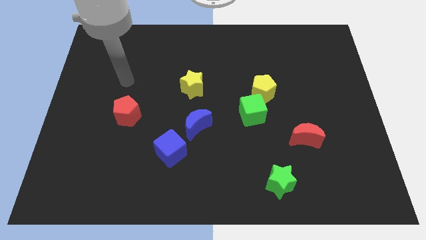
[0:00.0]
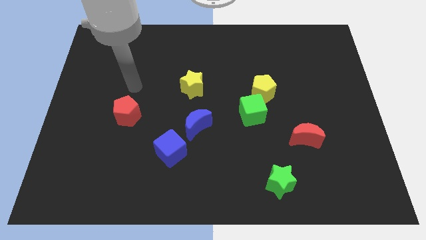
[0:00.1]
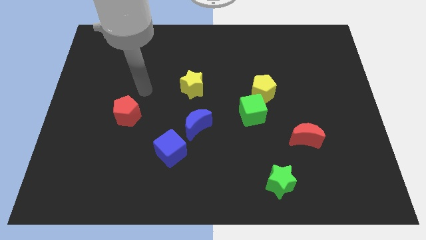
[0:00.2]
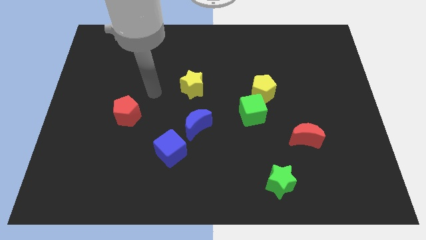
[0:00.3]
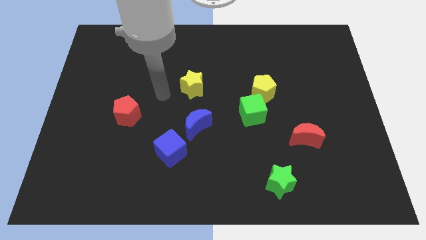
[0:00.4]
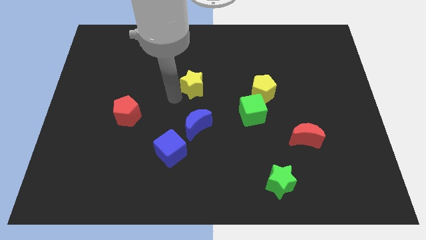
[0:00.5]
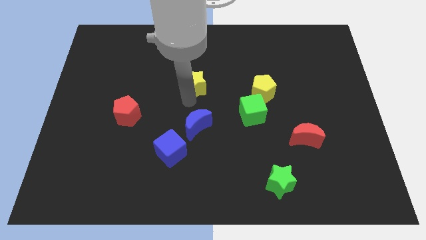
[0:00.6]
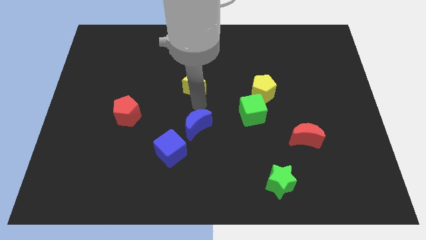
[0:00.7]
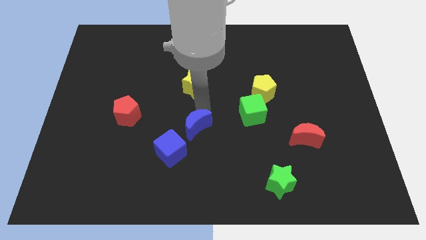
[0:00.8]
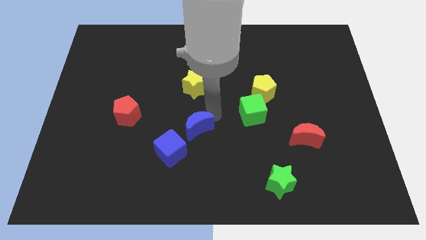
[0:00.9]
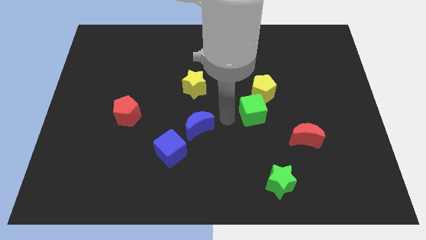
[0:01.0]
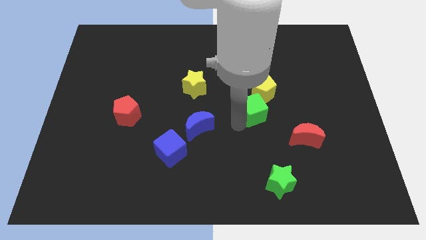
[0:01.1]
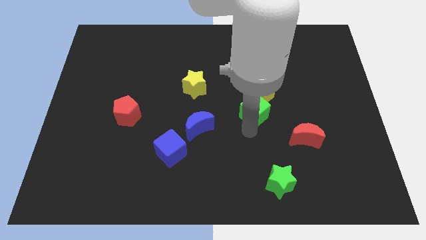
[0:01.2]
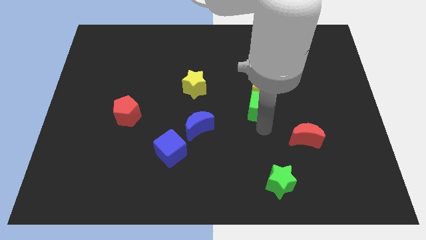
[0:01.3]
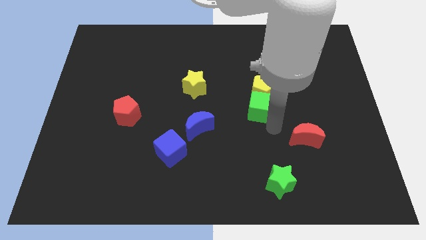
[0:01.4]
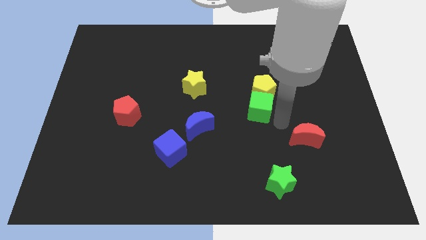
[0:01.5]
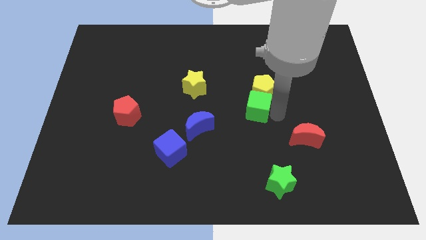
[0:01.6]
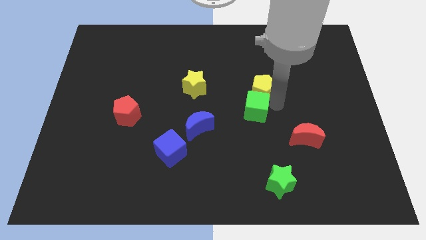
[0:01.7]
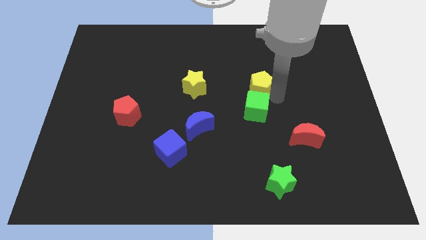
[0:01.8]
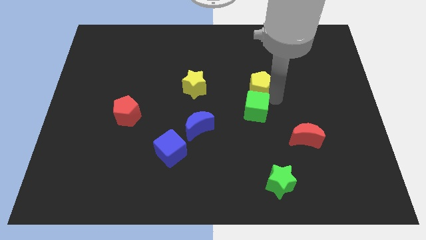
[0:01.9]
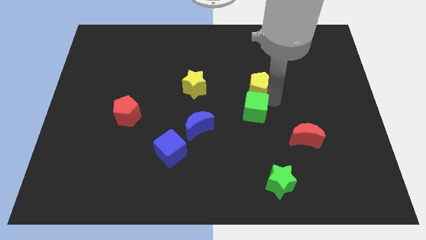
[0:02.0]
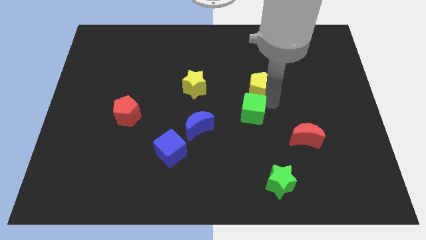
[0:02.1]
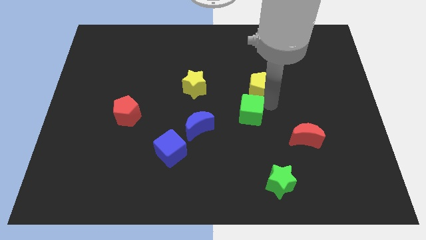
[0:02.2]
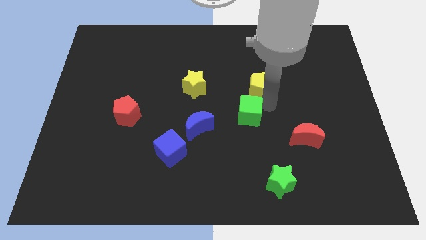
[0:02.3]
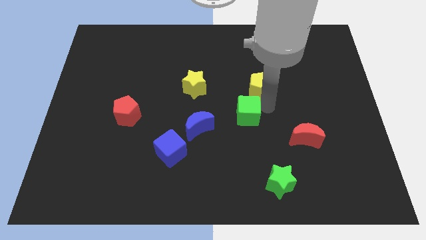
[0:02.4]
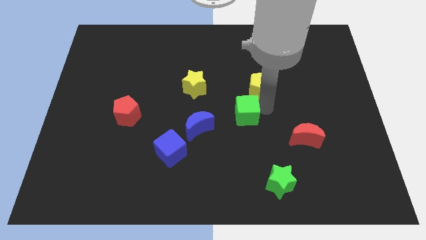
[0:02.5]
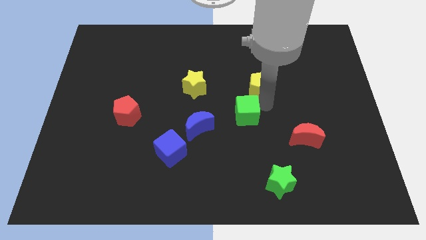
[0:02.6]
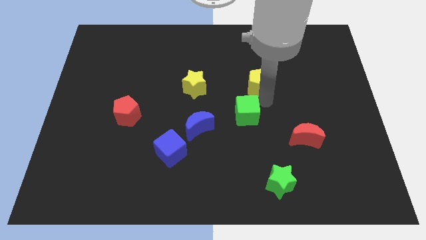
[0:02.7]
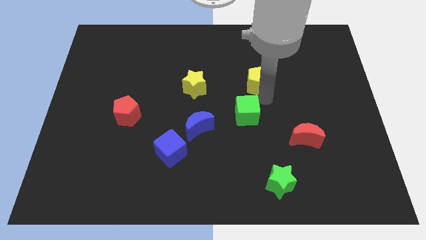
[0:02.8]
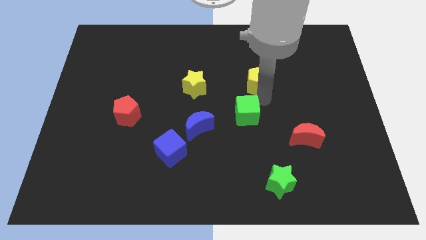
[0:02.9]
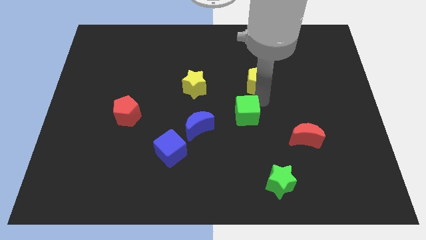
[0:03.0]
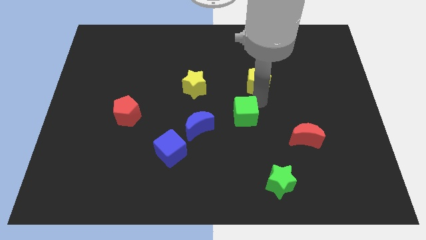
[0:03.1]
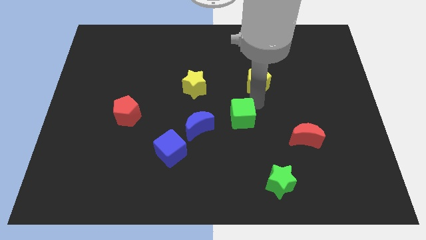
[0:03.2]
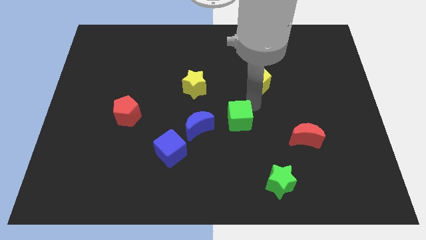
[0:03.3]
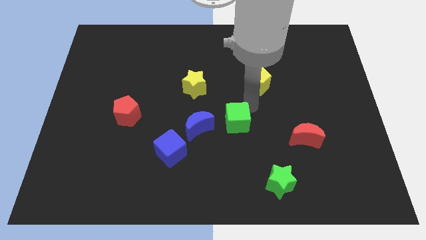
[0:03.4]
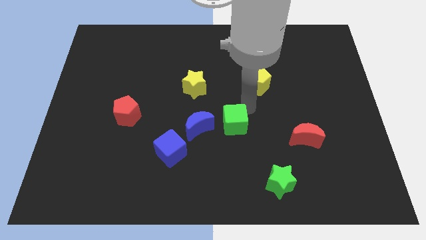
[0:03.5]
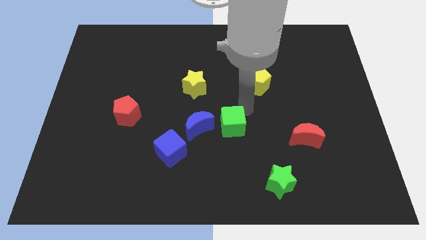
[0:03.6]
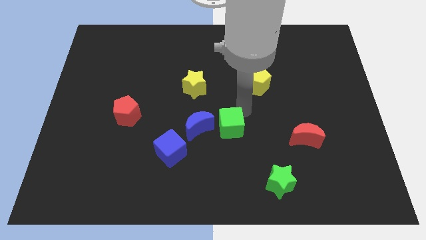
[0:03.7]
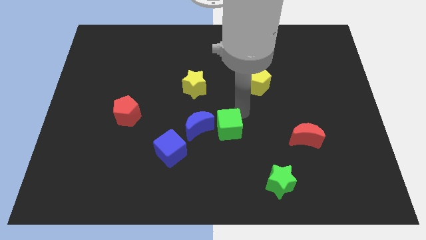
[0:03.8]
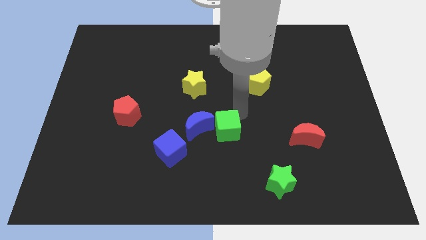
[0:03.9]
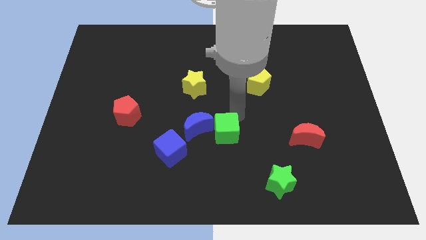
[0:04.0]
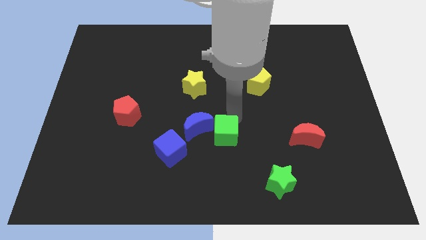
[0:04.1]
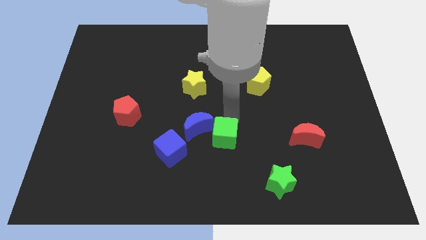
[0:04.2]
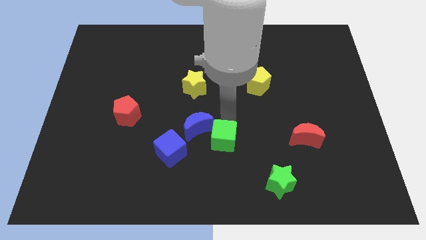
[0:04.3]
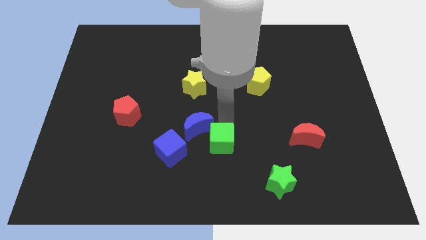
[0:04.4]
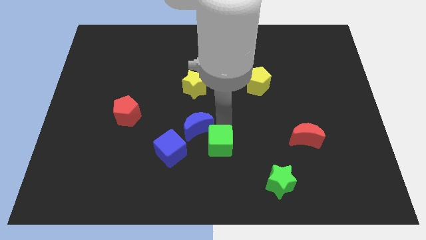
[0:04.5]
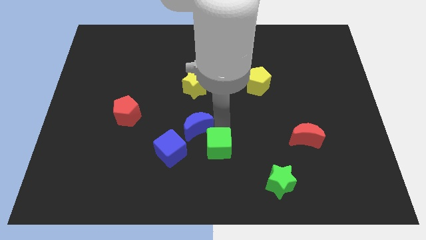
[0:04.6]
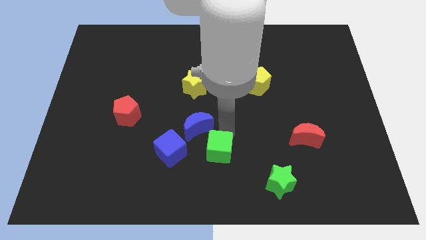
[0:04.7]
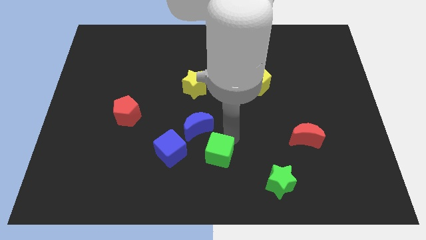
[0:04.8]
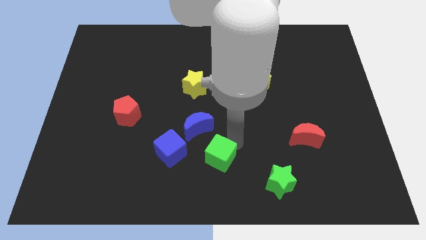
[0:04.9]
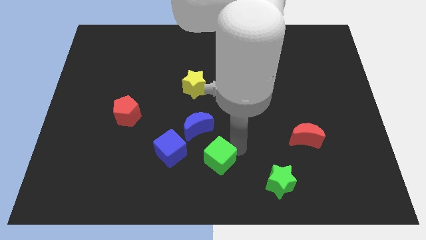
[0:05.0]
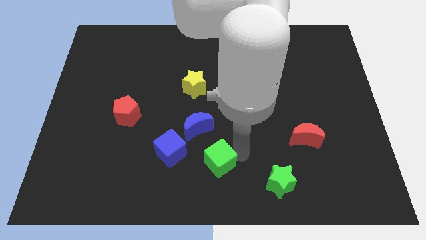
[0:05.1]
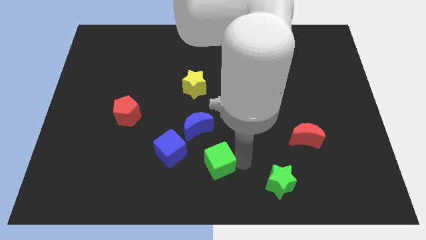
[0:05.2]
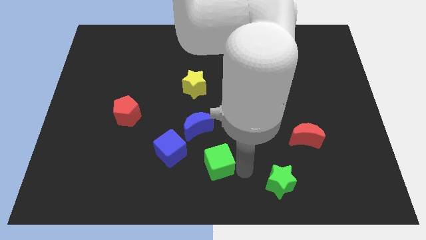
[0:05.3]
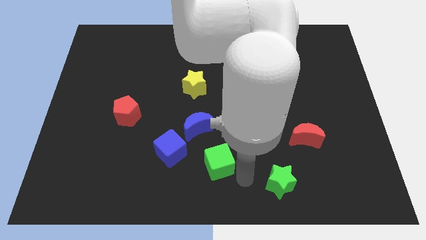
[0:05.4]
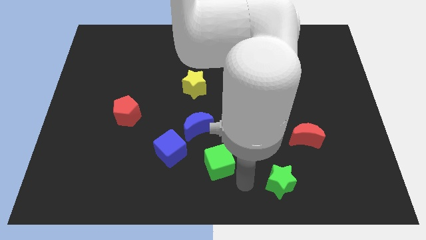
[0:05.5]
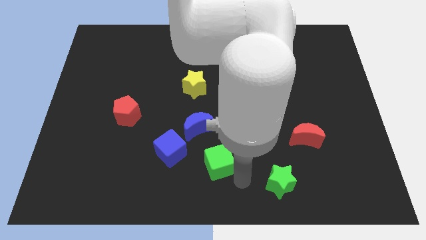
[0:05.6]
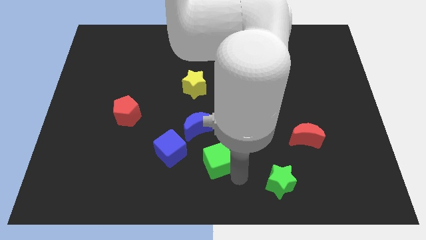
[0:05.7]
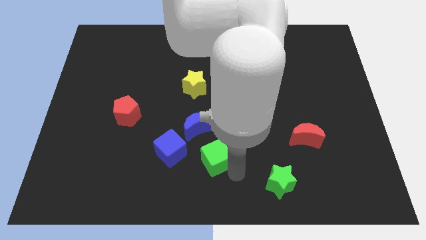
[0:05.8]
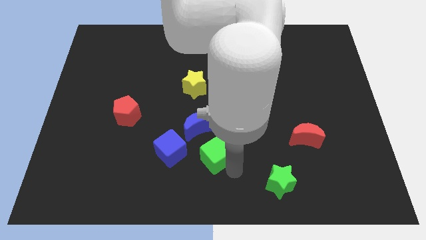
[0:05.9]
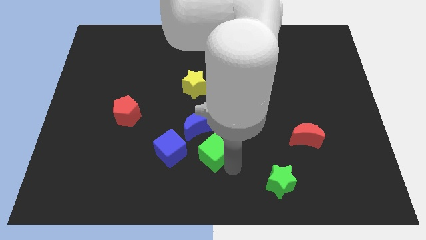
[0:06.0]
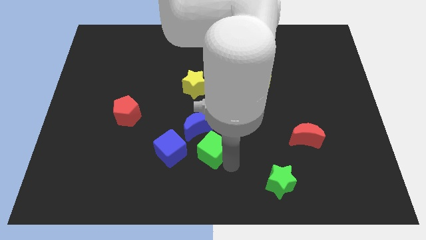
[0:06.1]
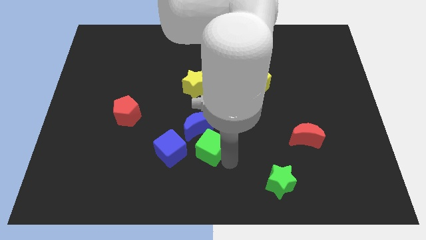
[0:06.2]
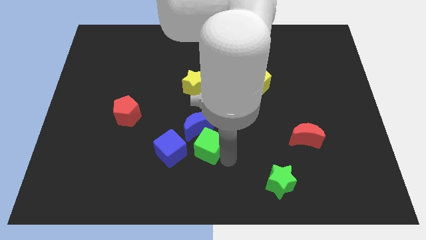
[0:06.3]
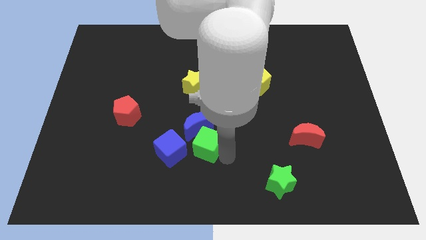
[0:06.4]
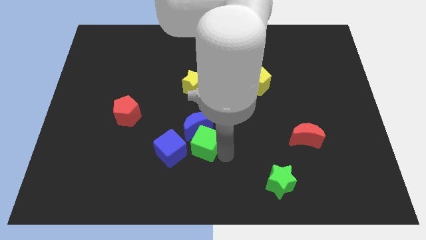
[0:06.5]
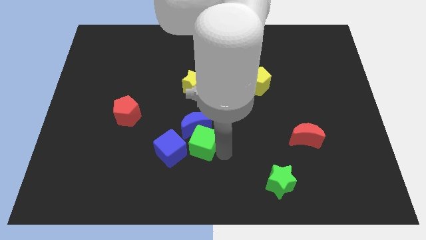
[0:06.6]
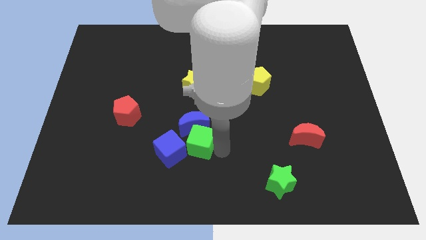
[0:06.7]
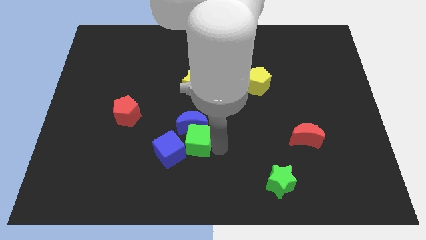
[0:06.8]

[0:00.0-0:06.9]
push the green cube to the bottom of the yellow star
